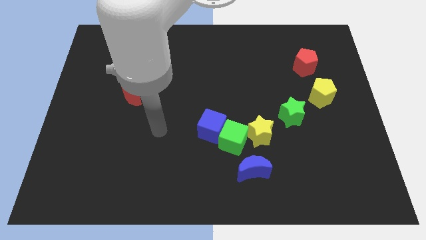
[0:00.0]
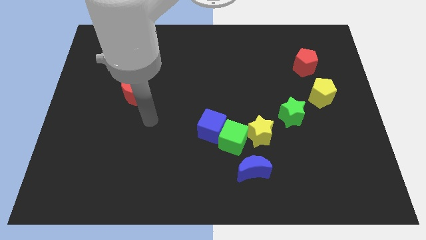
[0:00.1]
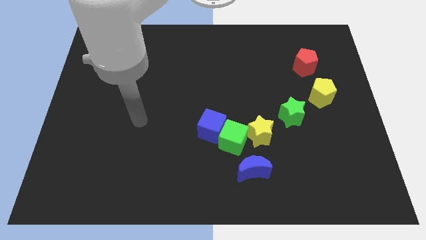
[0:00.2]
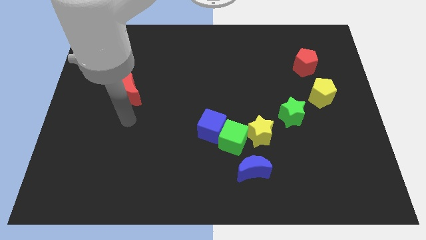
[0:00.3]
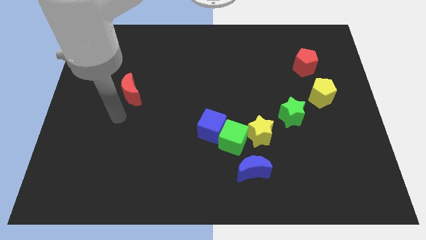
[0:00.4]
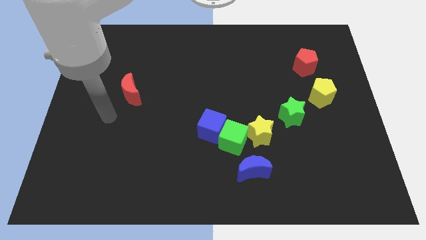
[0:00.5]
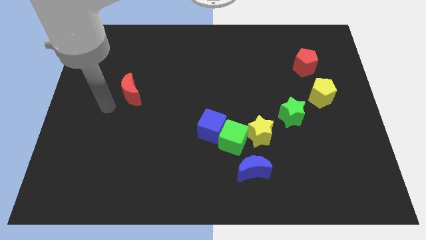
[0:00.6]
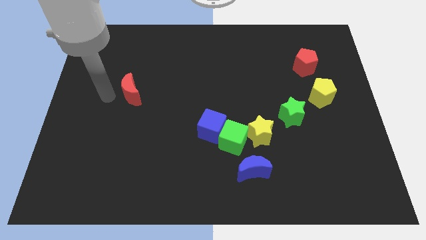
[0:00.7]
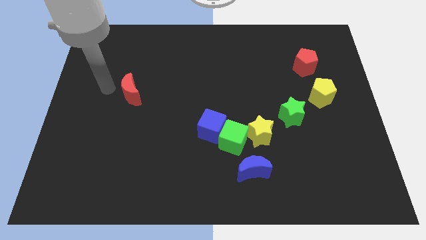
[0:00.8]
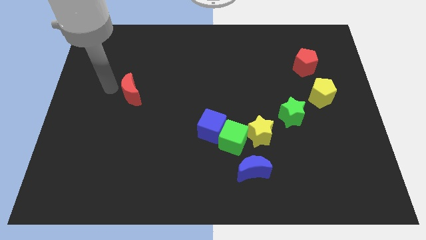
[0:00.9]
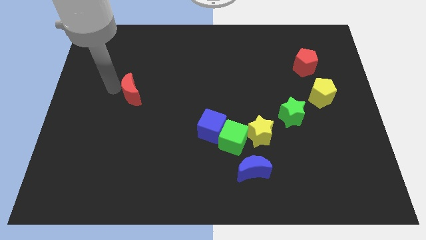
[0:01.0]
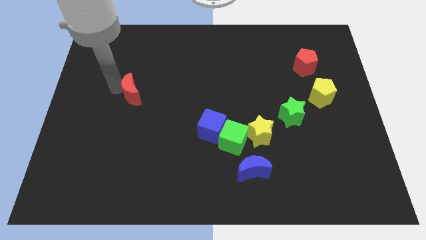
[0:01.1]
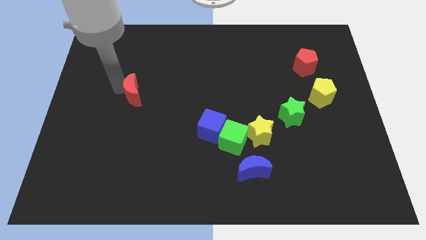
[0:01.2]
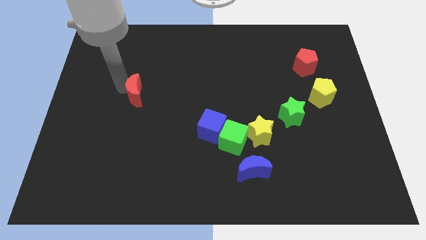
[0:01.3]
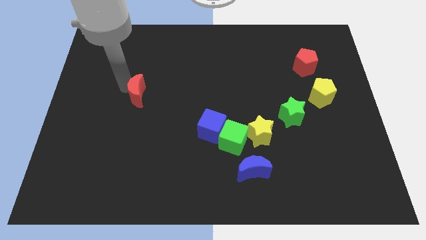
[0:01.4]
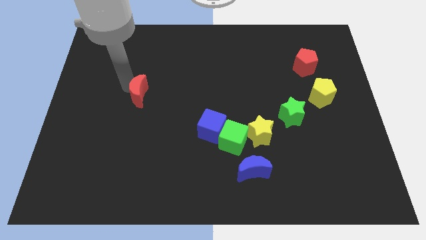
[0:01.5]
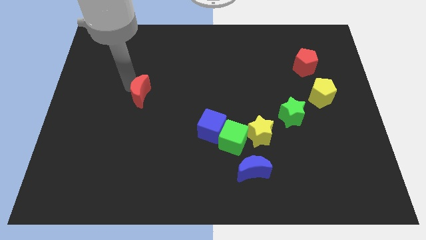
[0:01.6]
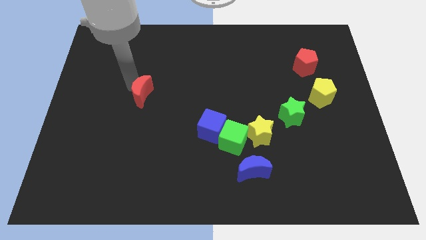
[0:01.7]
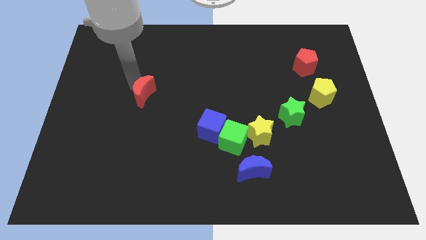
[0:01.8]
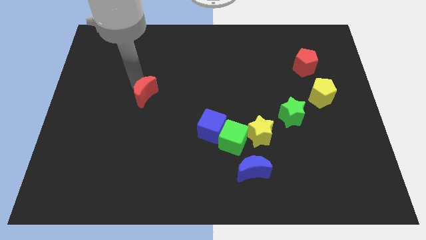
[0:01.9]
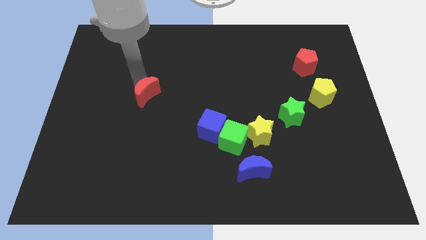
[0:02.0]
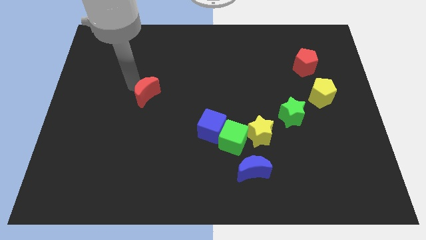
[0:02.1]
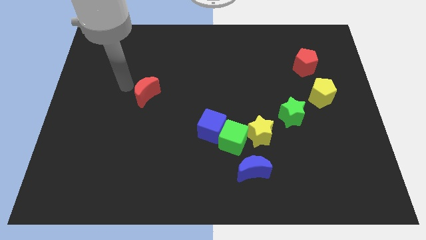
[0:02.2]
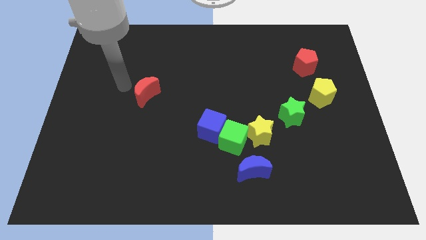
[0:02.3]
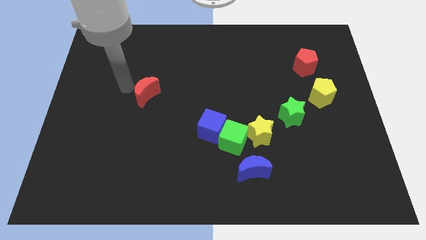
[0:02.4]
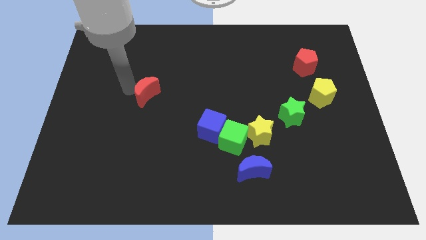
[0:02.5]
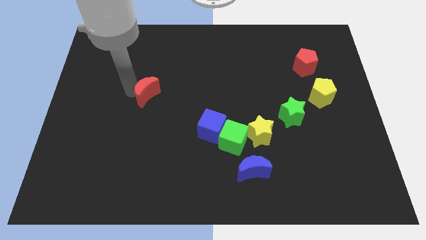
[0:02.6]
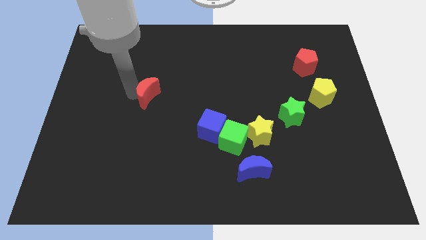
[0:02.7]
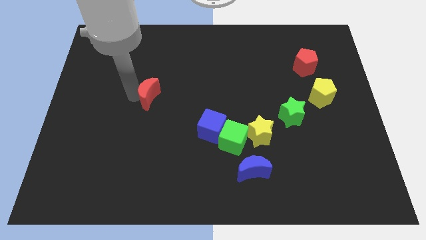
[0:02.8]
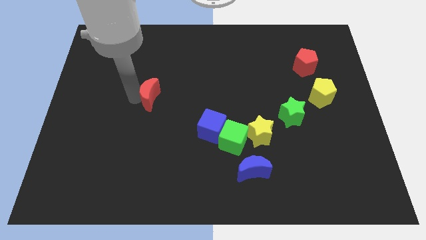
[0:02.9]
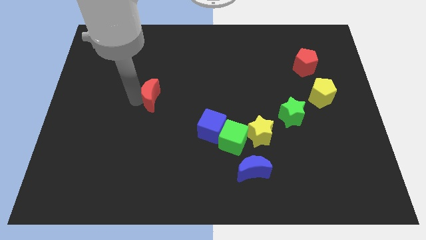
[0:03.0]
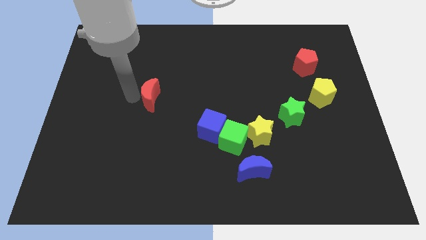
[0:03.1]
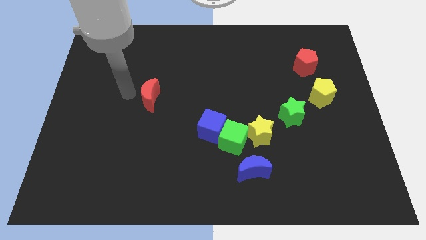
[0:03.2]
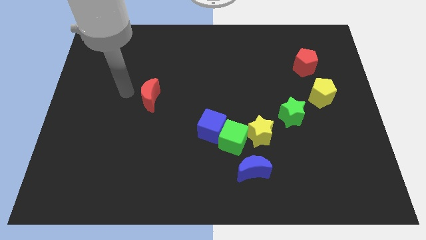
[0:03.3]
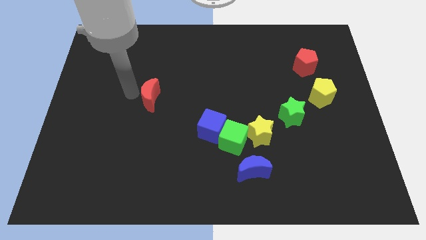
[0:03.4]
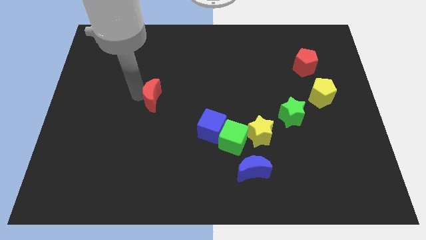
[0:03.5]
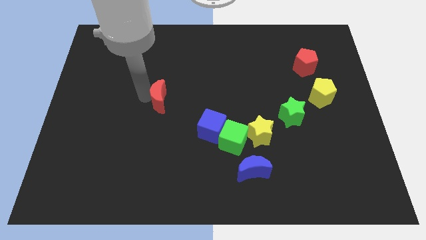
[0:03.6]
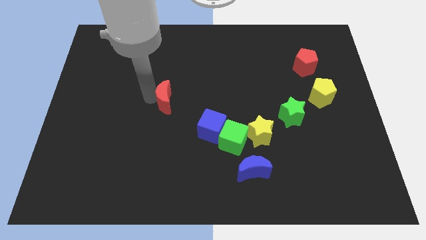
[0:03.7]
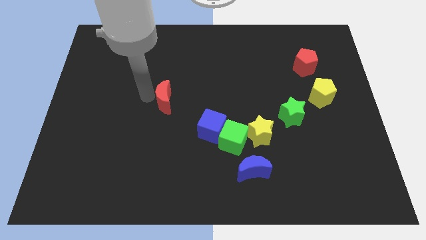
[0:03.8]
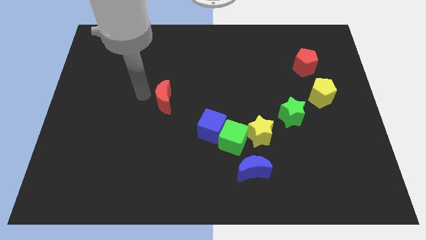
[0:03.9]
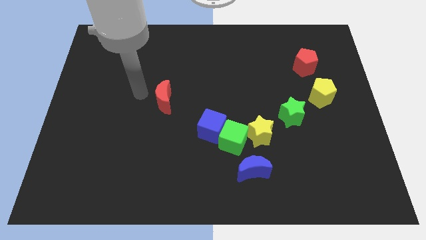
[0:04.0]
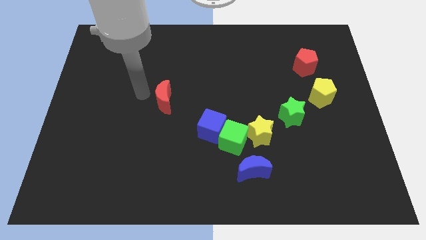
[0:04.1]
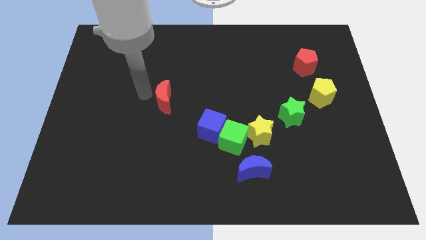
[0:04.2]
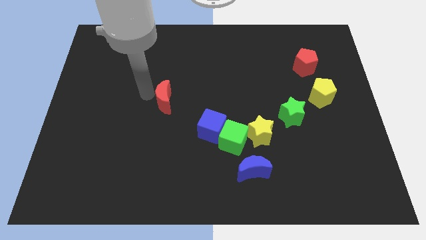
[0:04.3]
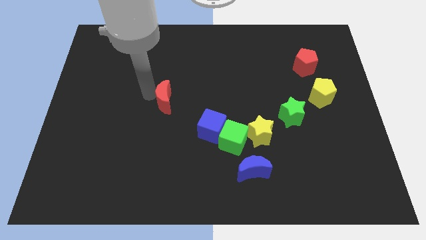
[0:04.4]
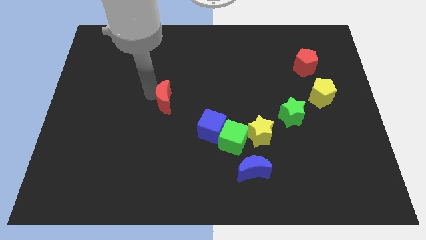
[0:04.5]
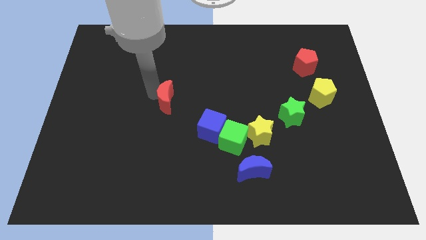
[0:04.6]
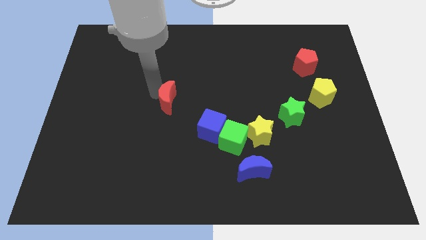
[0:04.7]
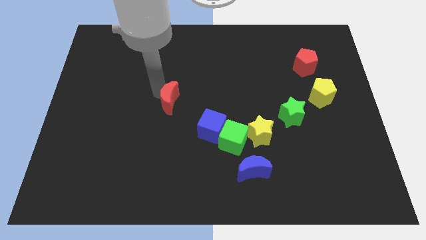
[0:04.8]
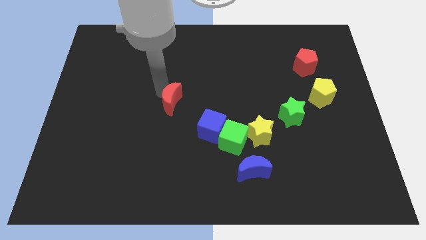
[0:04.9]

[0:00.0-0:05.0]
move the red moon to the top left side of the blue cube

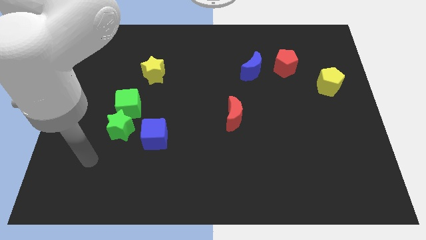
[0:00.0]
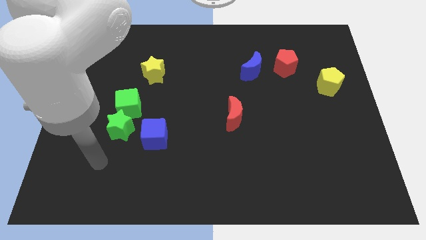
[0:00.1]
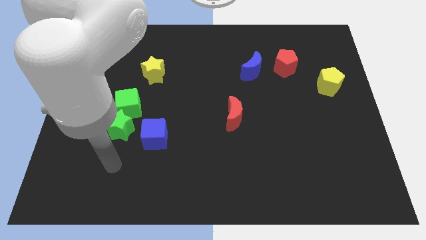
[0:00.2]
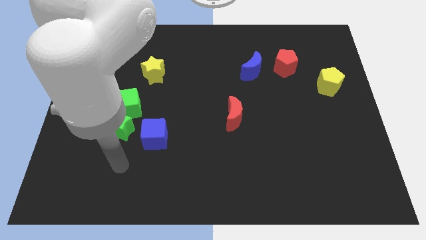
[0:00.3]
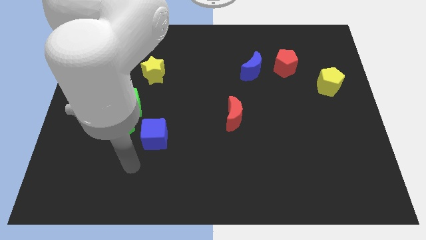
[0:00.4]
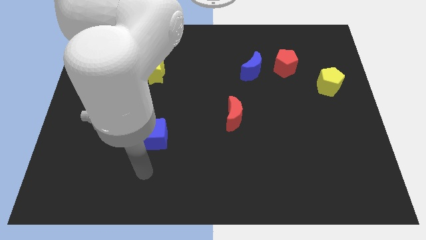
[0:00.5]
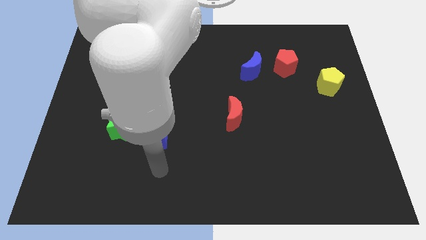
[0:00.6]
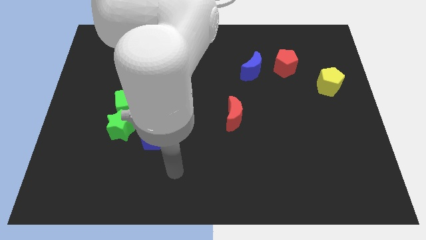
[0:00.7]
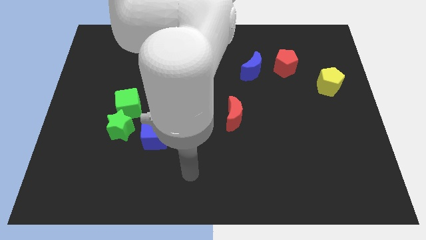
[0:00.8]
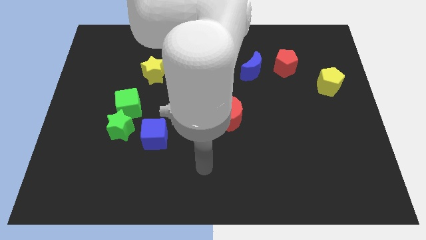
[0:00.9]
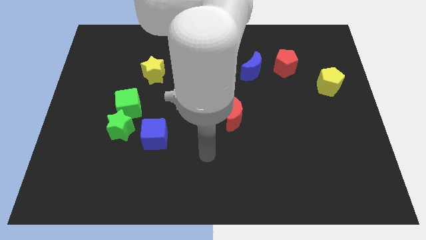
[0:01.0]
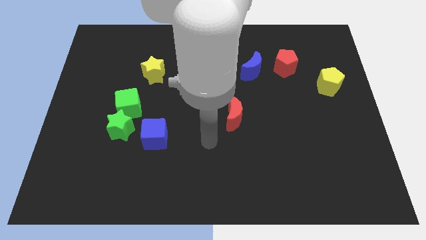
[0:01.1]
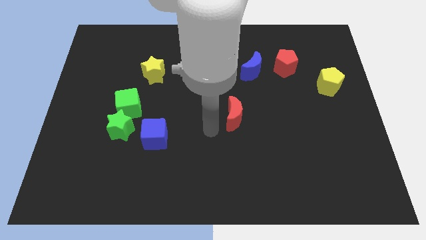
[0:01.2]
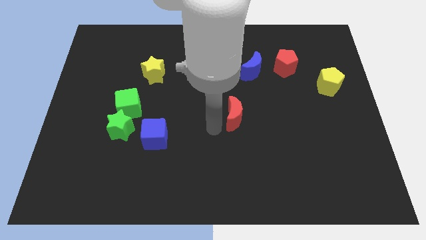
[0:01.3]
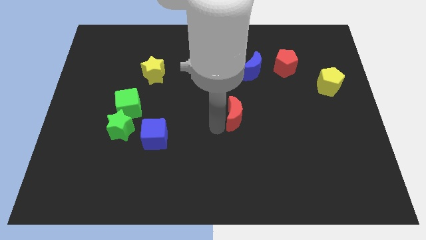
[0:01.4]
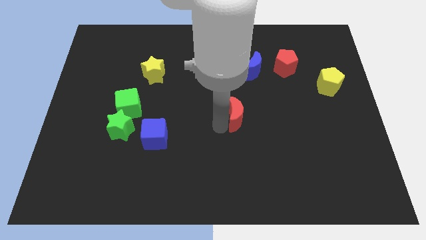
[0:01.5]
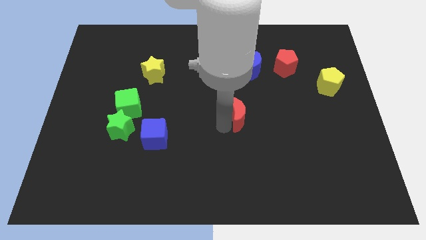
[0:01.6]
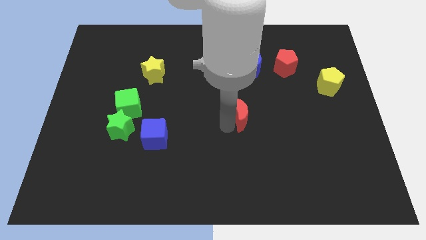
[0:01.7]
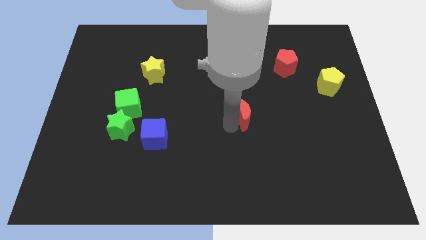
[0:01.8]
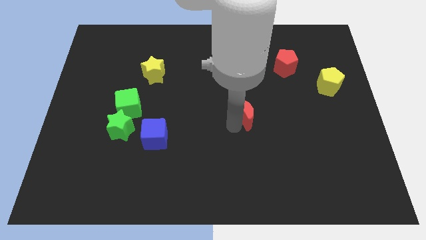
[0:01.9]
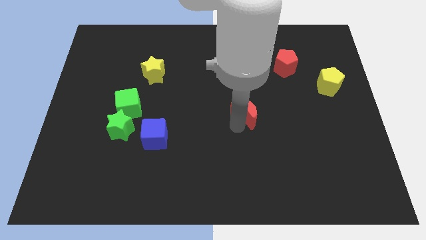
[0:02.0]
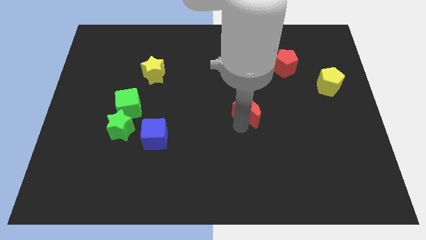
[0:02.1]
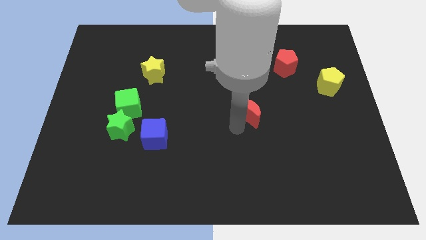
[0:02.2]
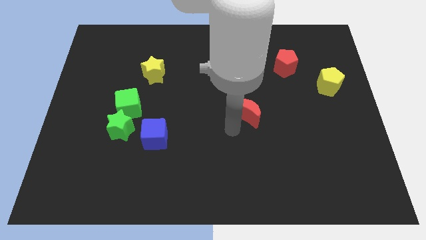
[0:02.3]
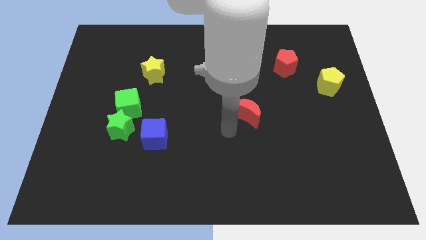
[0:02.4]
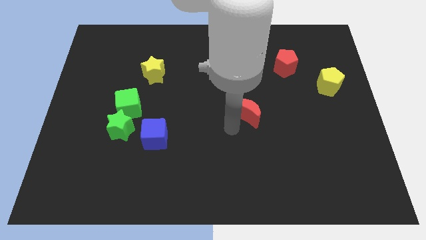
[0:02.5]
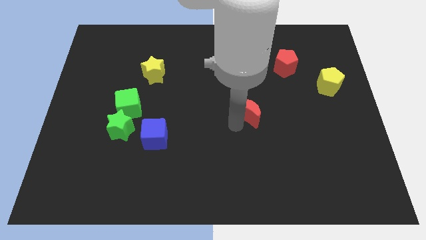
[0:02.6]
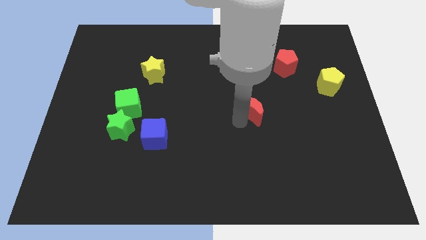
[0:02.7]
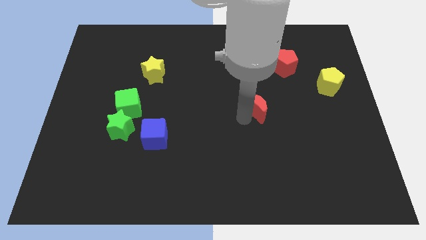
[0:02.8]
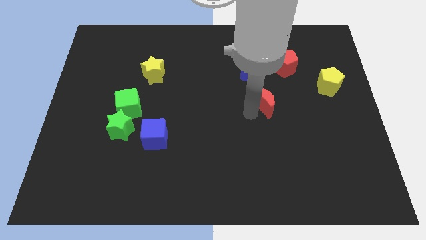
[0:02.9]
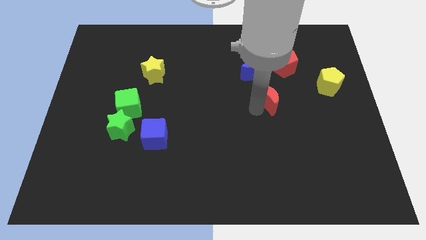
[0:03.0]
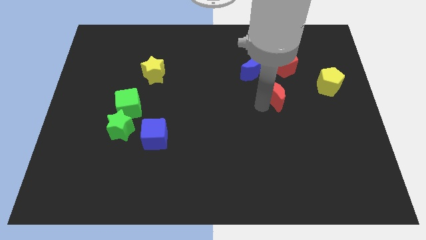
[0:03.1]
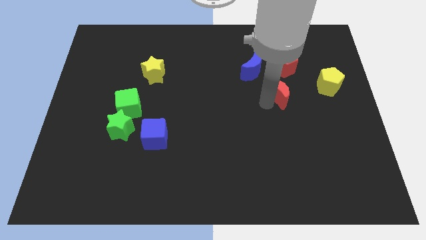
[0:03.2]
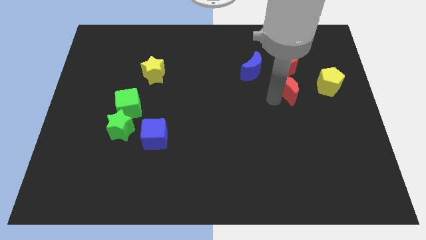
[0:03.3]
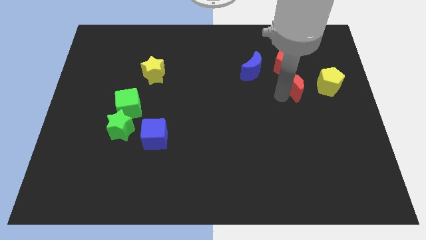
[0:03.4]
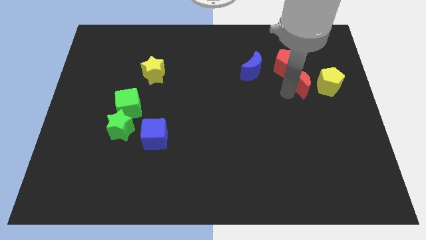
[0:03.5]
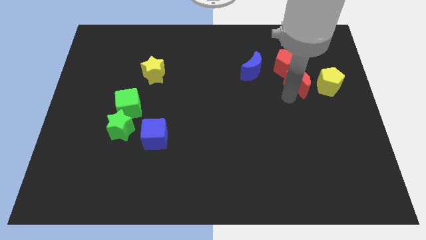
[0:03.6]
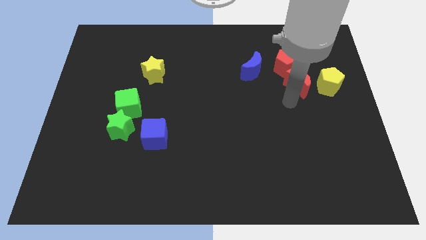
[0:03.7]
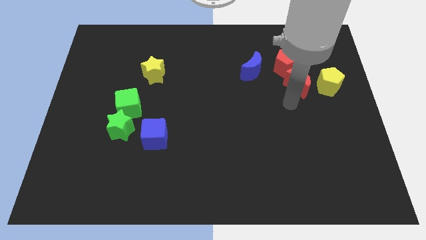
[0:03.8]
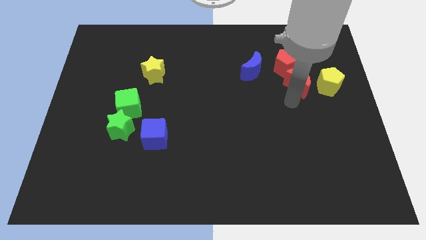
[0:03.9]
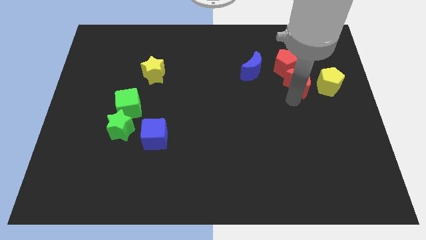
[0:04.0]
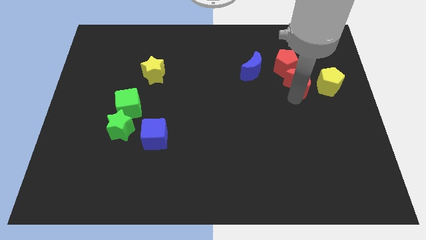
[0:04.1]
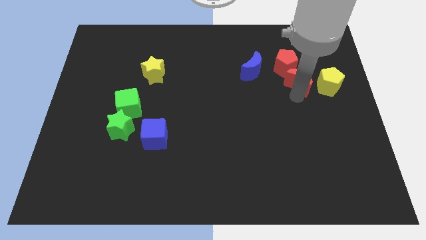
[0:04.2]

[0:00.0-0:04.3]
move the red moon to the top left of the yellow pentagon
